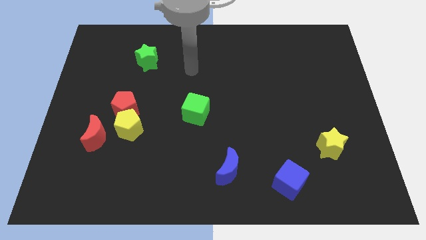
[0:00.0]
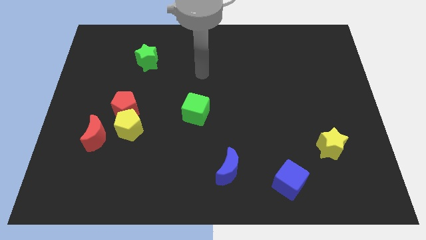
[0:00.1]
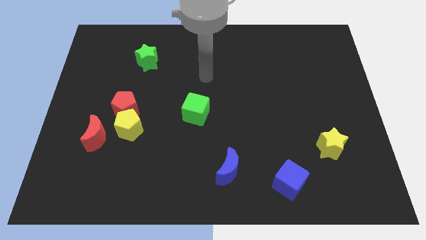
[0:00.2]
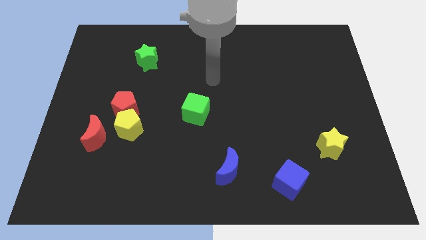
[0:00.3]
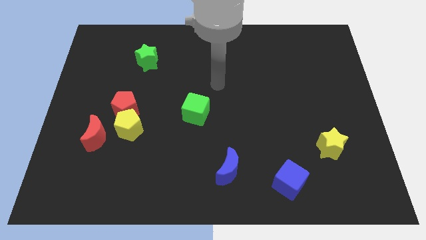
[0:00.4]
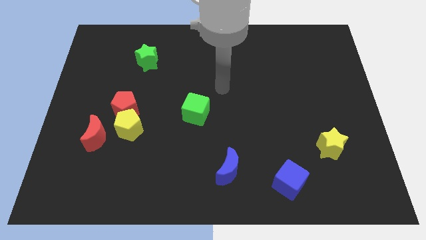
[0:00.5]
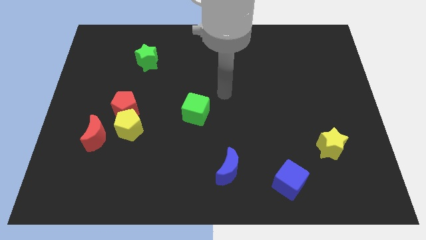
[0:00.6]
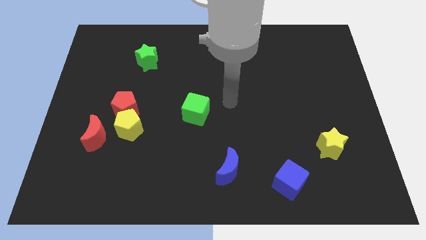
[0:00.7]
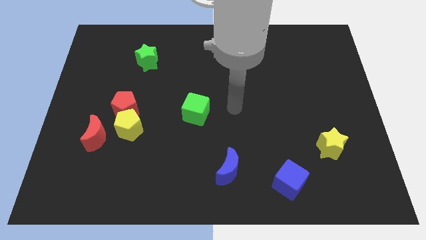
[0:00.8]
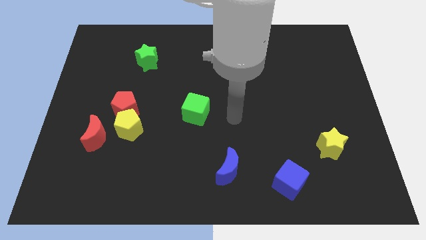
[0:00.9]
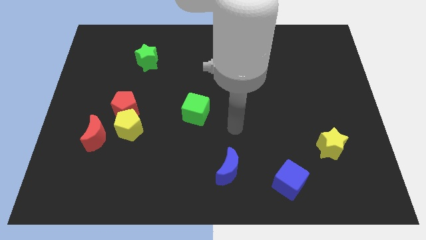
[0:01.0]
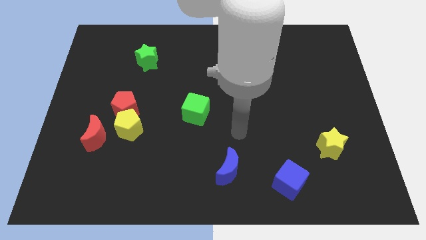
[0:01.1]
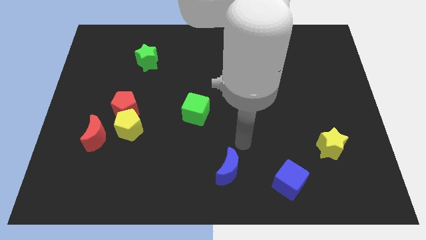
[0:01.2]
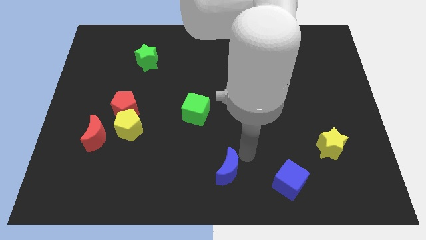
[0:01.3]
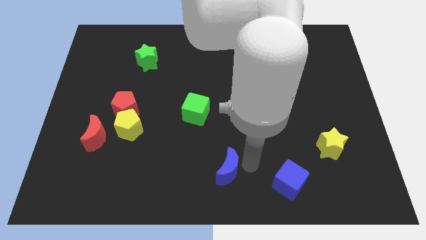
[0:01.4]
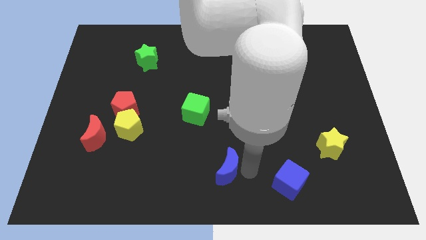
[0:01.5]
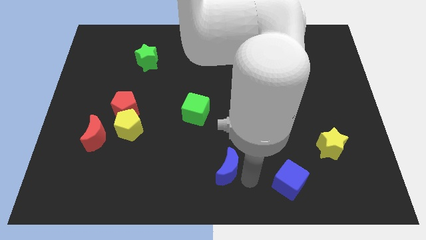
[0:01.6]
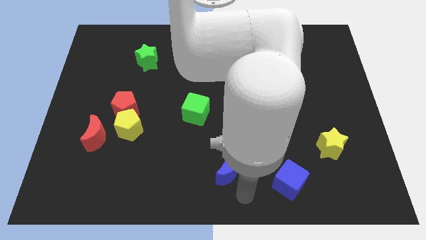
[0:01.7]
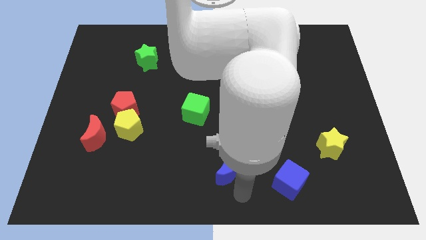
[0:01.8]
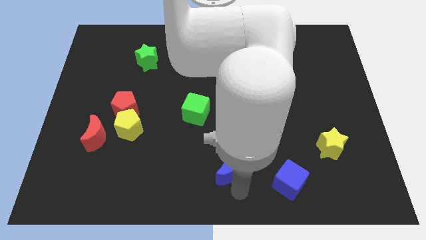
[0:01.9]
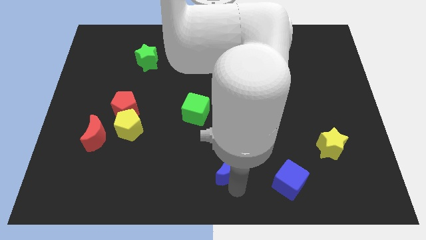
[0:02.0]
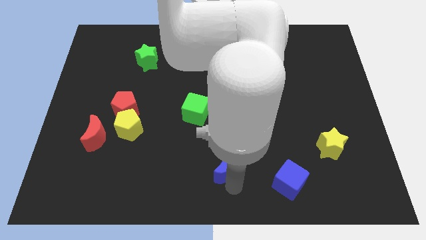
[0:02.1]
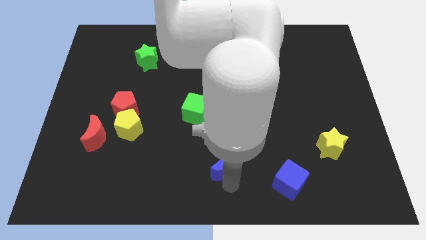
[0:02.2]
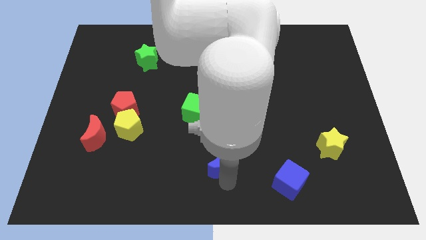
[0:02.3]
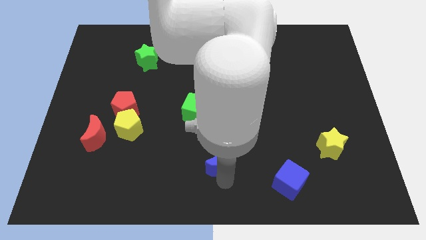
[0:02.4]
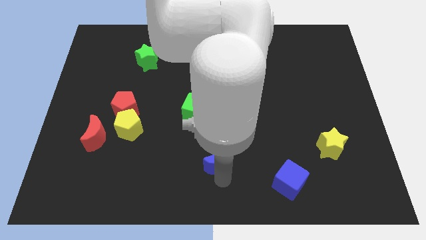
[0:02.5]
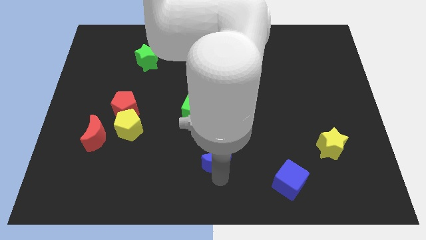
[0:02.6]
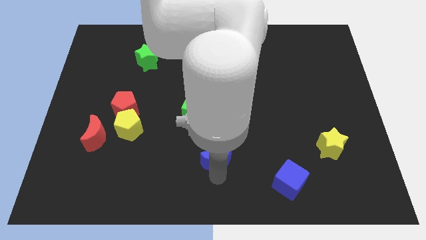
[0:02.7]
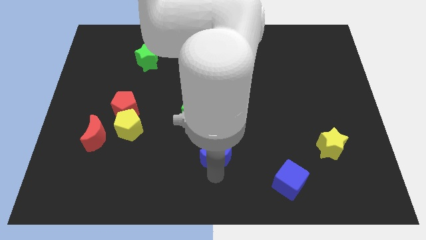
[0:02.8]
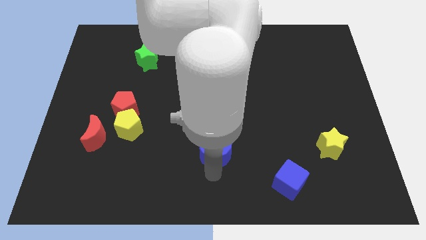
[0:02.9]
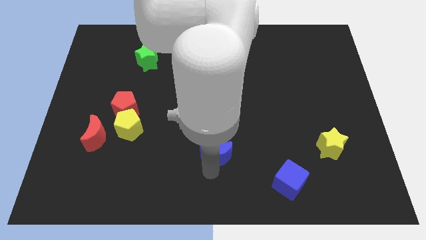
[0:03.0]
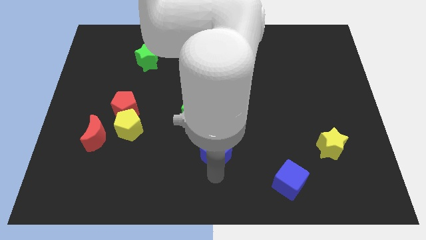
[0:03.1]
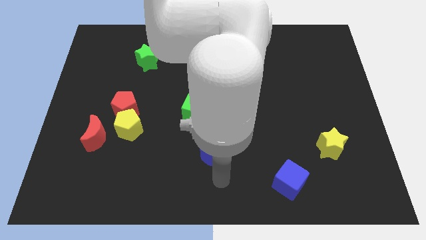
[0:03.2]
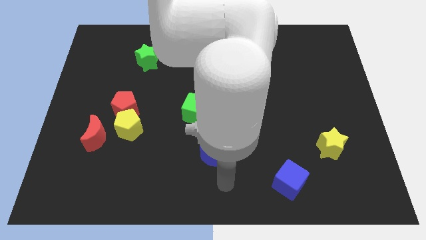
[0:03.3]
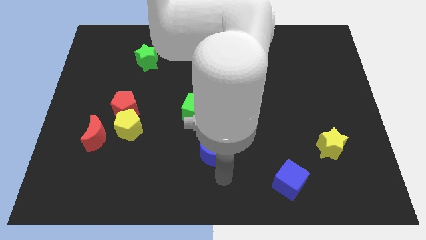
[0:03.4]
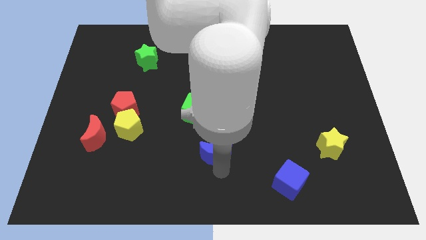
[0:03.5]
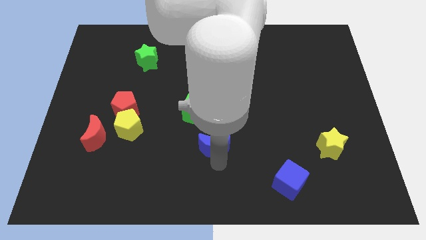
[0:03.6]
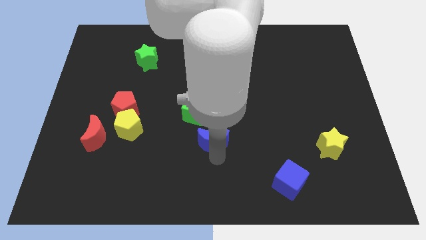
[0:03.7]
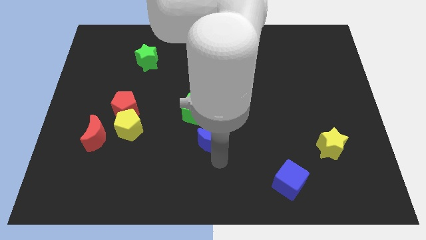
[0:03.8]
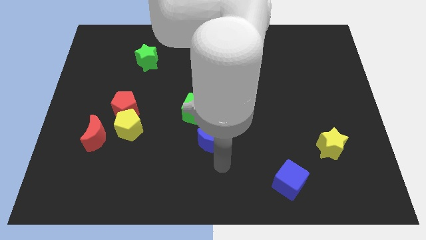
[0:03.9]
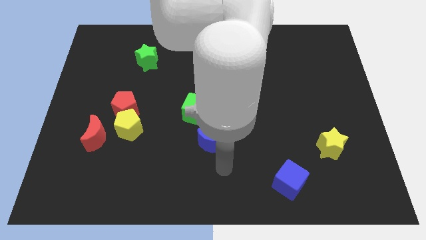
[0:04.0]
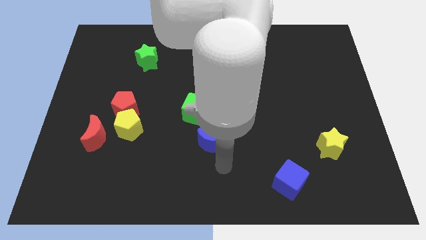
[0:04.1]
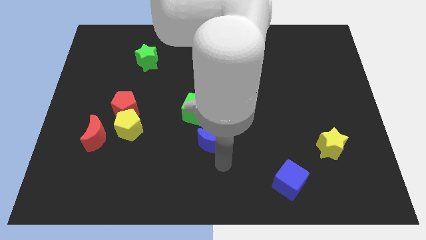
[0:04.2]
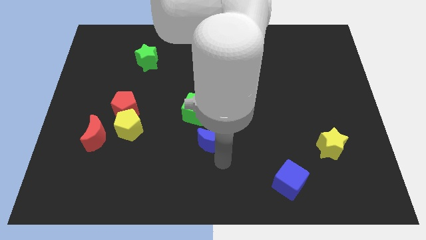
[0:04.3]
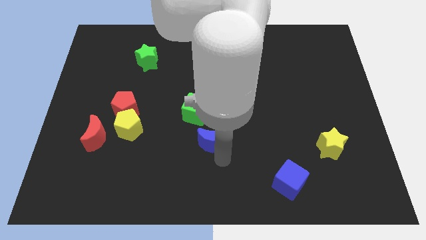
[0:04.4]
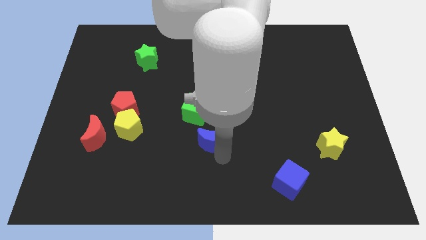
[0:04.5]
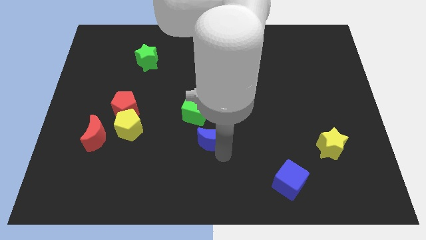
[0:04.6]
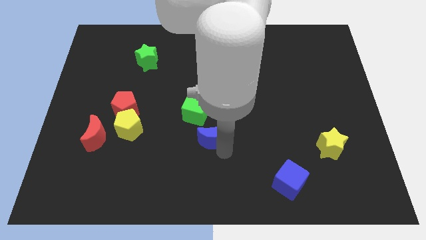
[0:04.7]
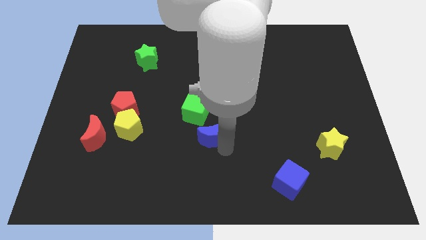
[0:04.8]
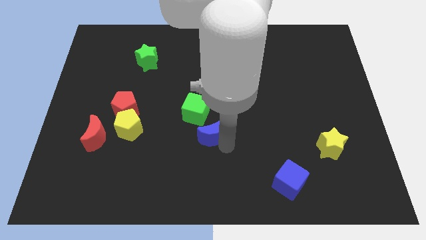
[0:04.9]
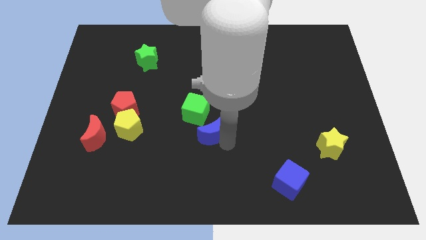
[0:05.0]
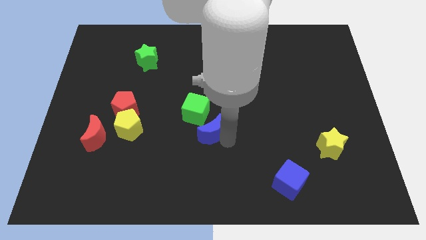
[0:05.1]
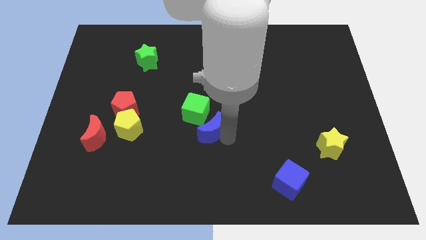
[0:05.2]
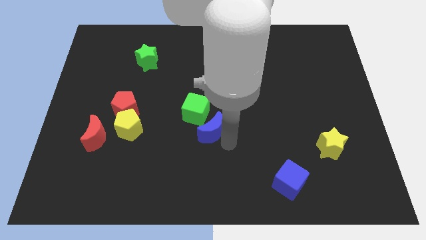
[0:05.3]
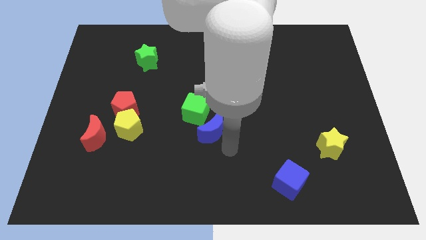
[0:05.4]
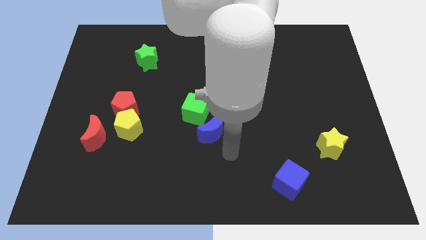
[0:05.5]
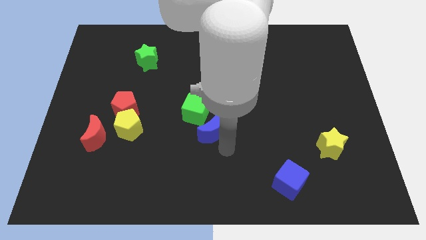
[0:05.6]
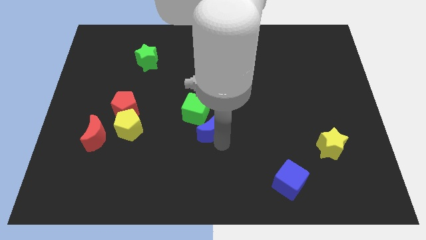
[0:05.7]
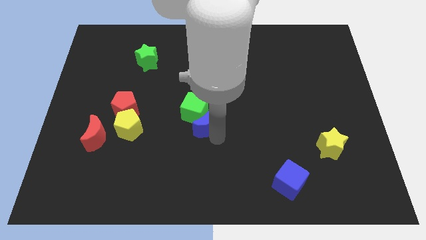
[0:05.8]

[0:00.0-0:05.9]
slide the blue moon next to the green cube

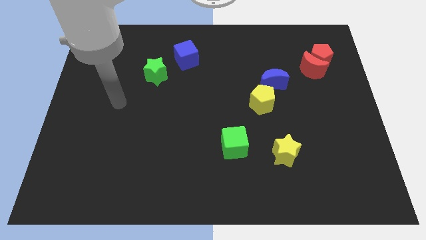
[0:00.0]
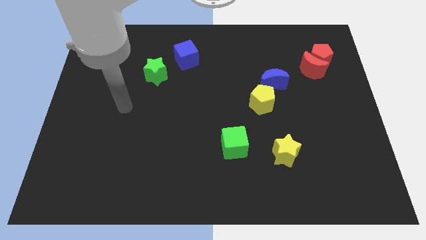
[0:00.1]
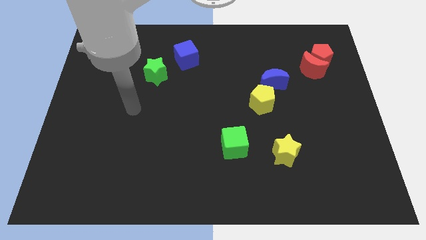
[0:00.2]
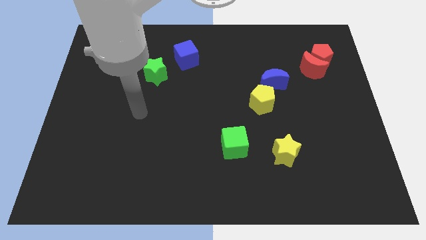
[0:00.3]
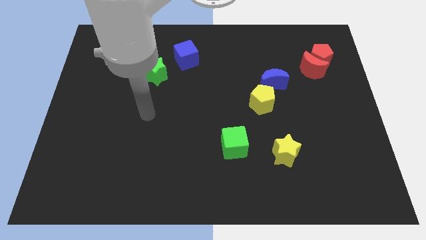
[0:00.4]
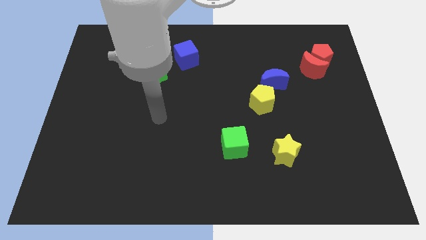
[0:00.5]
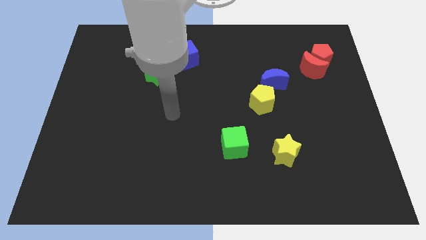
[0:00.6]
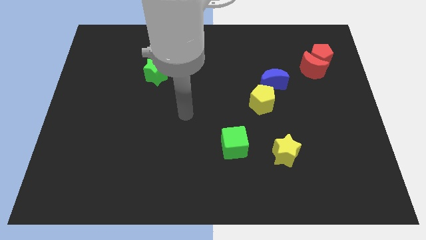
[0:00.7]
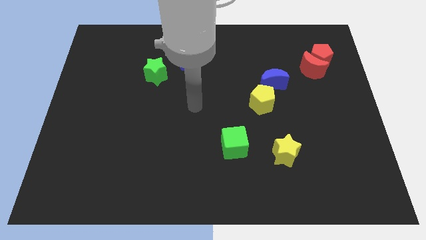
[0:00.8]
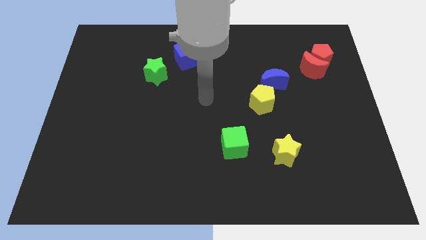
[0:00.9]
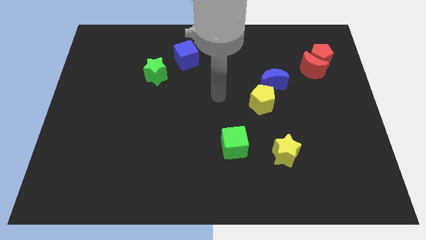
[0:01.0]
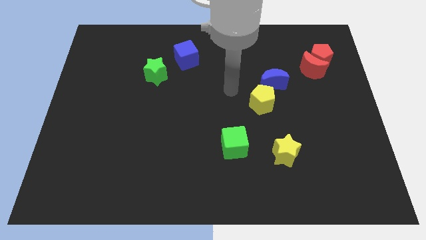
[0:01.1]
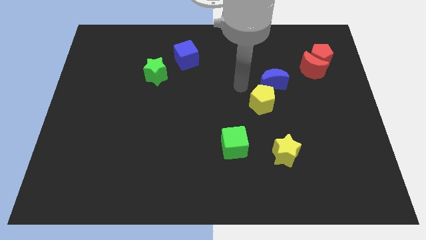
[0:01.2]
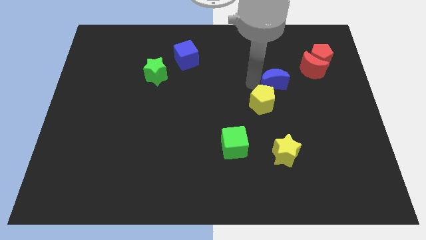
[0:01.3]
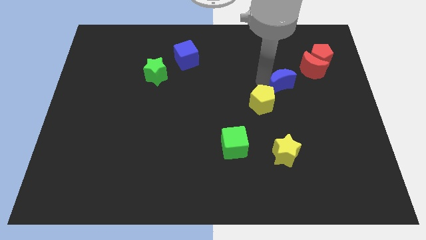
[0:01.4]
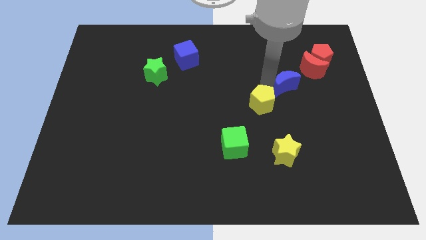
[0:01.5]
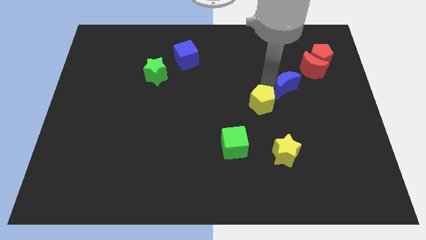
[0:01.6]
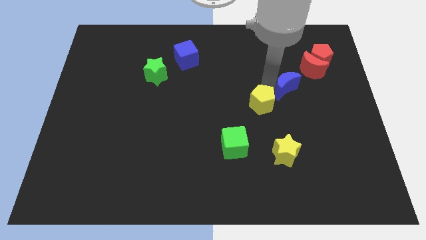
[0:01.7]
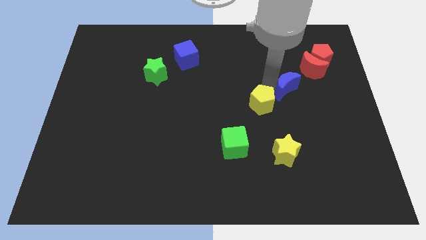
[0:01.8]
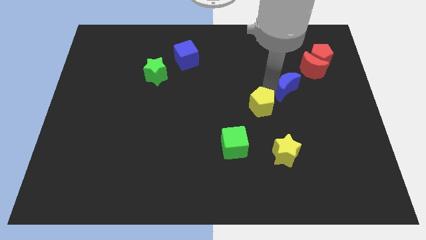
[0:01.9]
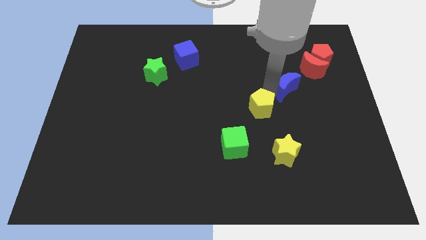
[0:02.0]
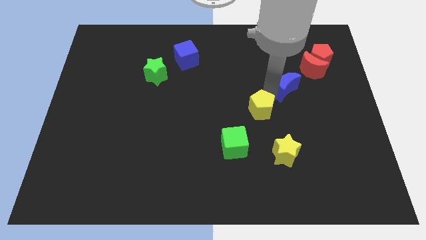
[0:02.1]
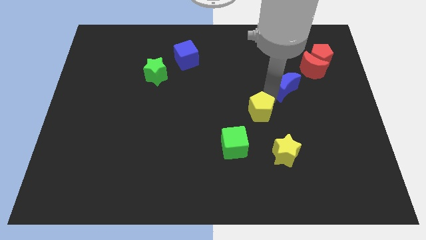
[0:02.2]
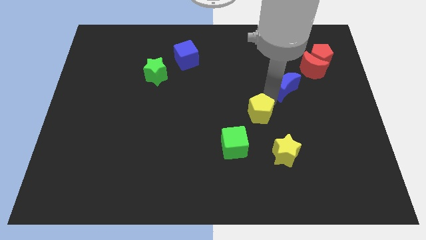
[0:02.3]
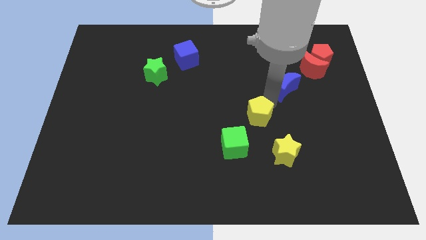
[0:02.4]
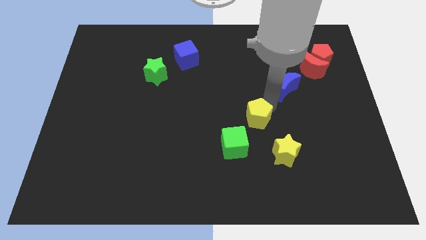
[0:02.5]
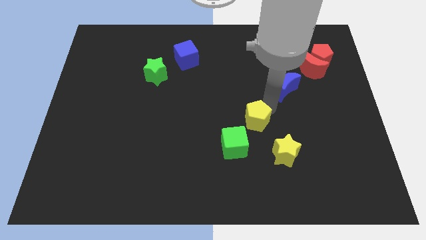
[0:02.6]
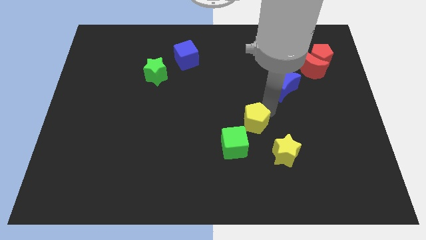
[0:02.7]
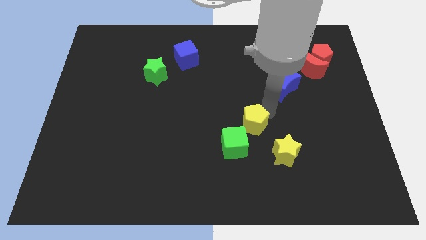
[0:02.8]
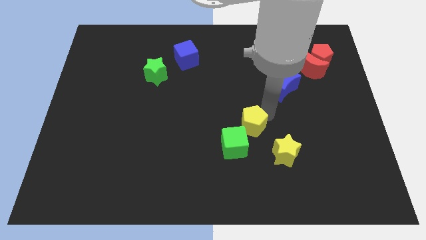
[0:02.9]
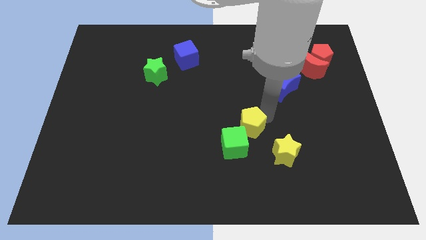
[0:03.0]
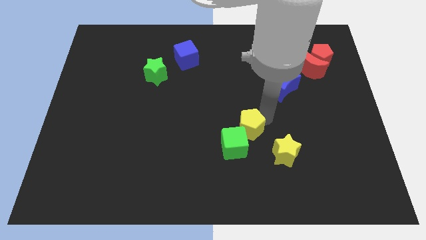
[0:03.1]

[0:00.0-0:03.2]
slide the yellow pentagon close to the green cube
